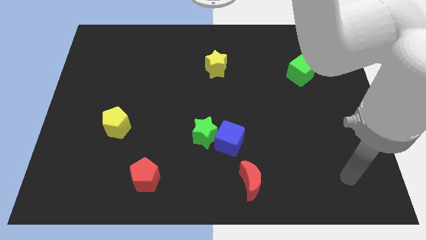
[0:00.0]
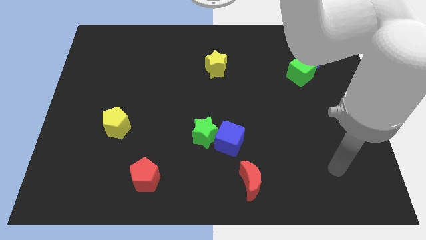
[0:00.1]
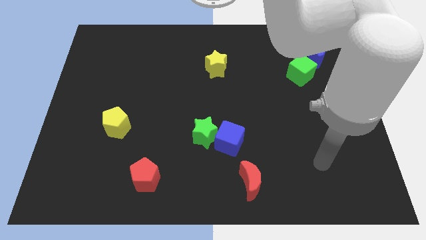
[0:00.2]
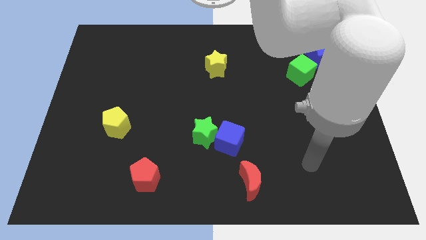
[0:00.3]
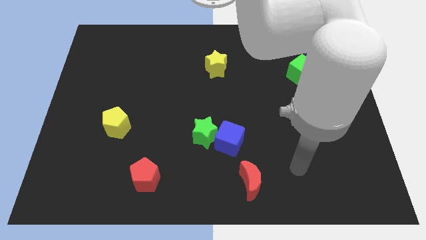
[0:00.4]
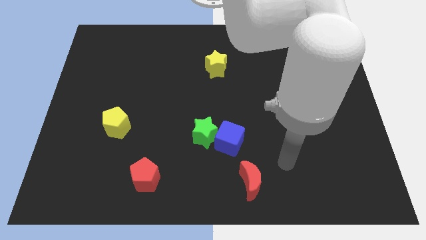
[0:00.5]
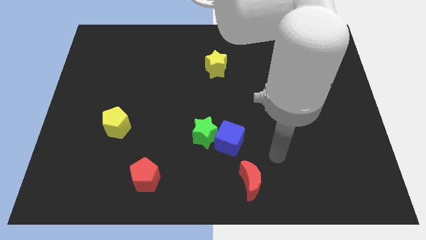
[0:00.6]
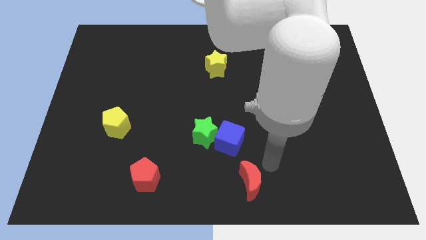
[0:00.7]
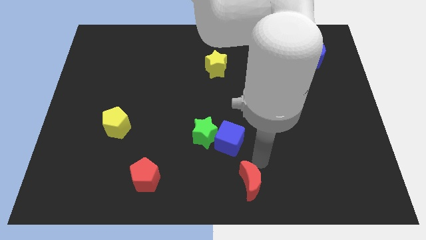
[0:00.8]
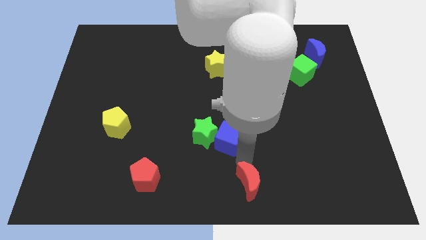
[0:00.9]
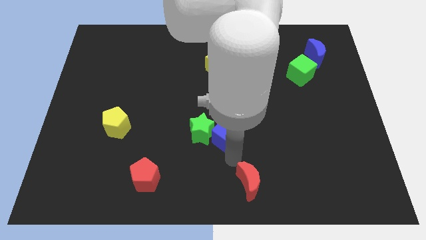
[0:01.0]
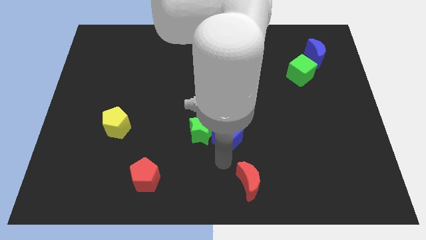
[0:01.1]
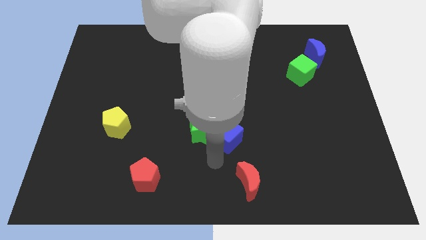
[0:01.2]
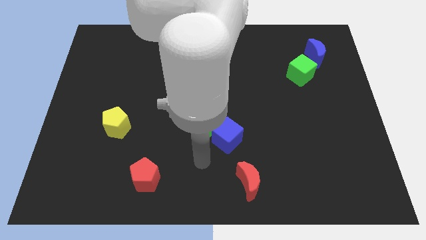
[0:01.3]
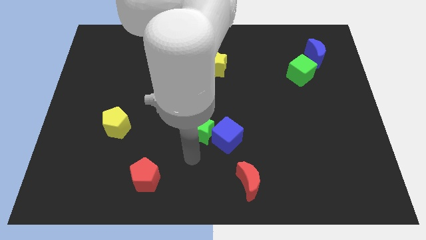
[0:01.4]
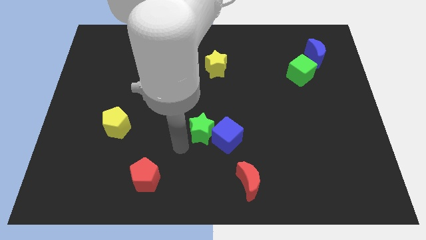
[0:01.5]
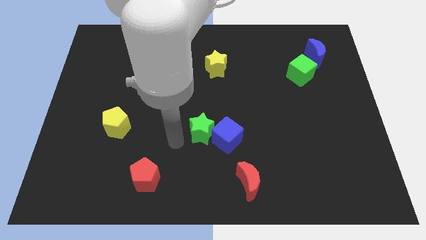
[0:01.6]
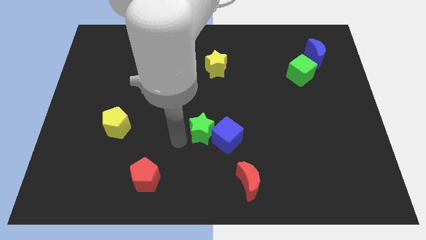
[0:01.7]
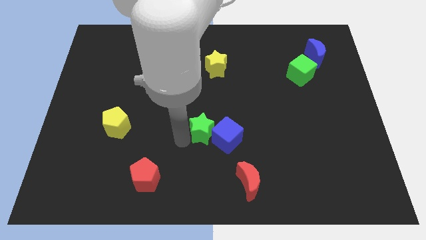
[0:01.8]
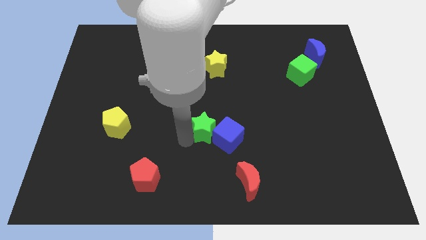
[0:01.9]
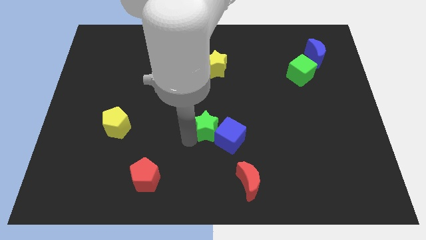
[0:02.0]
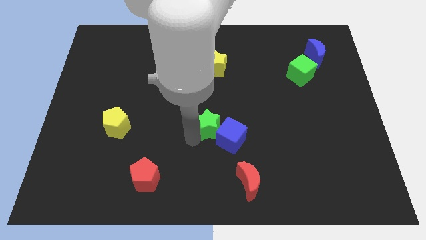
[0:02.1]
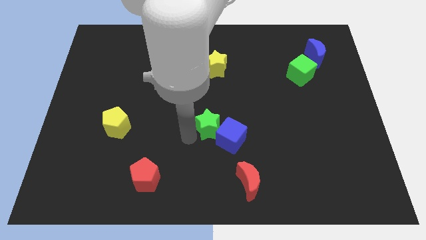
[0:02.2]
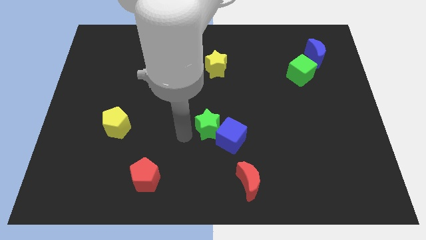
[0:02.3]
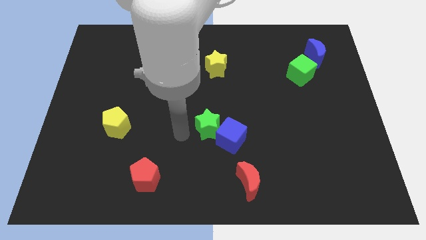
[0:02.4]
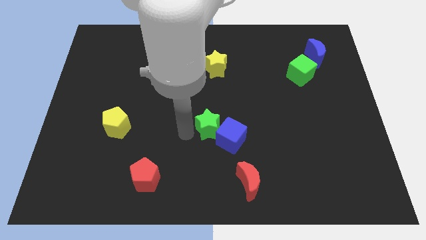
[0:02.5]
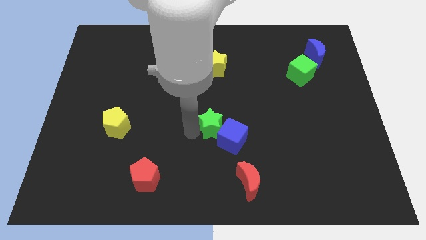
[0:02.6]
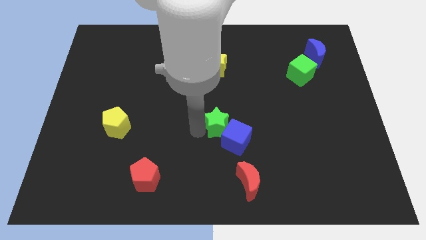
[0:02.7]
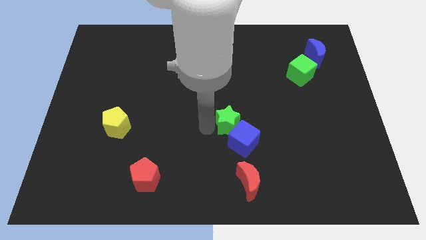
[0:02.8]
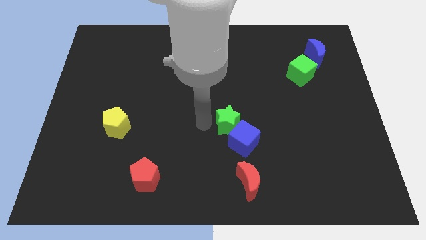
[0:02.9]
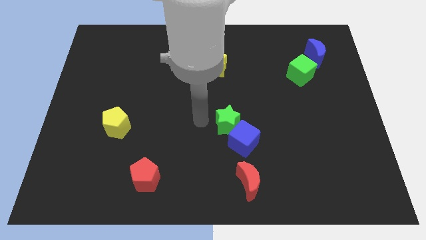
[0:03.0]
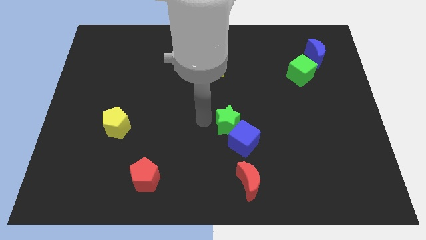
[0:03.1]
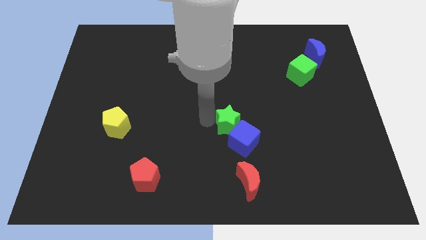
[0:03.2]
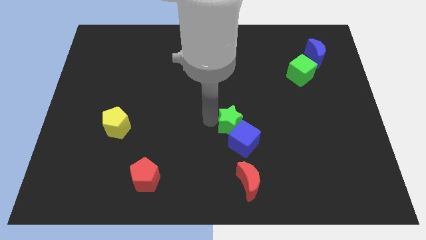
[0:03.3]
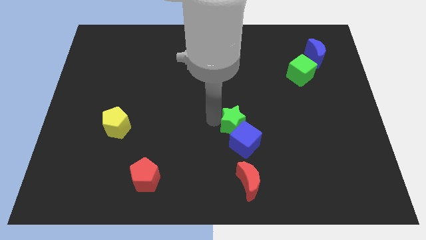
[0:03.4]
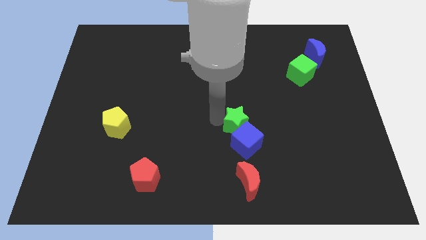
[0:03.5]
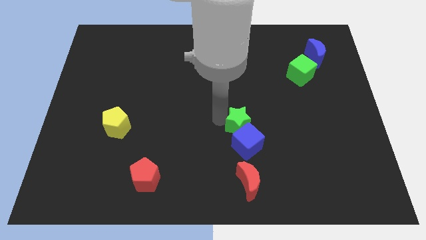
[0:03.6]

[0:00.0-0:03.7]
slide the green star right somewhat

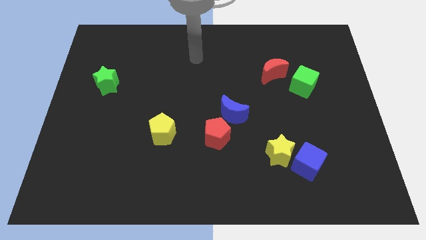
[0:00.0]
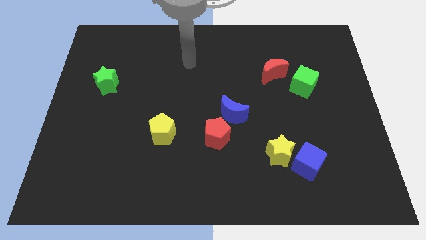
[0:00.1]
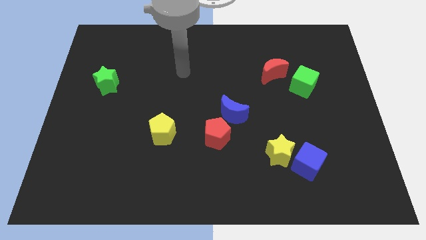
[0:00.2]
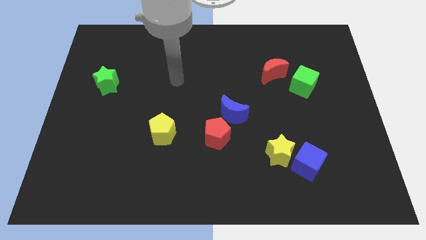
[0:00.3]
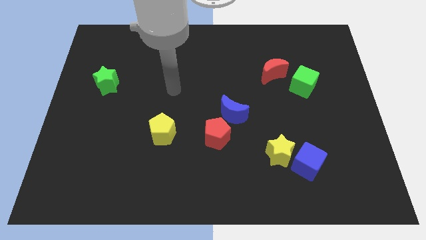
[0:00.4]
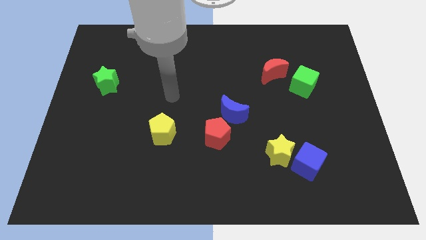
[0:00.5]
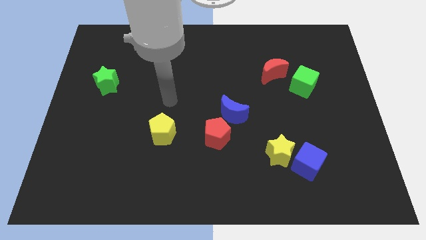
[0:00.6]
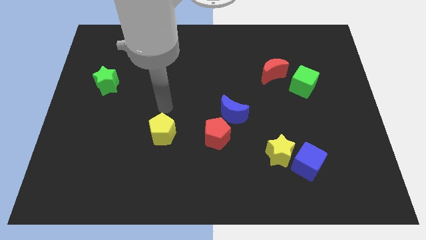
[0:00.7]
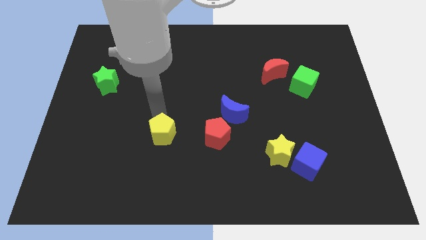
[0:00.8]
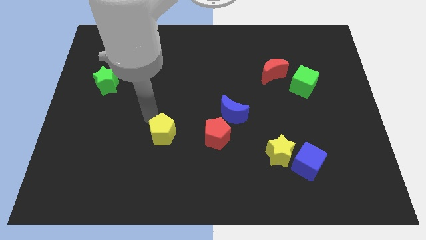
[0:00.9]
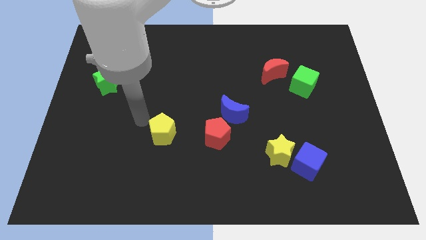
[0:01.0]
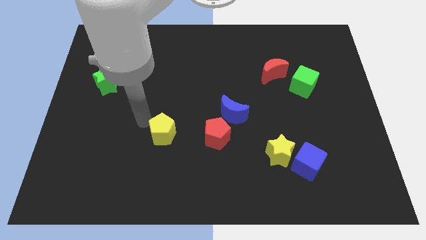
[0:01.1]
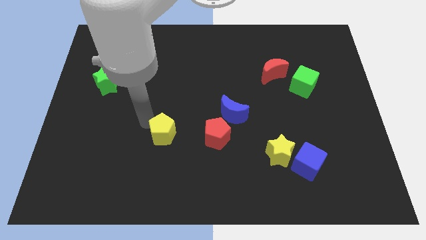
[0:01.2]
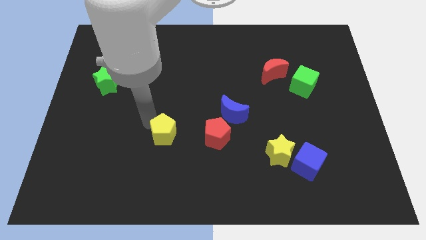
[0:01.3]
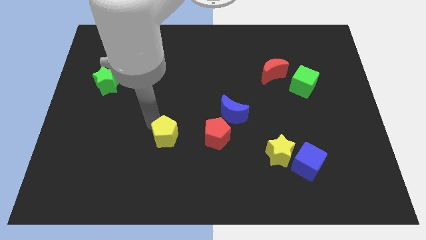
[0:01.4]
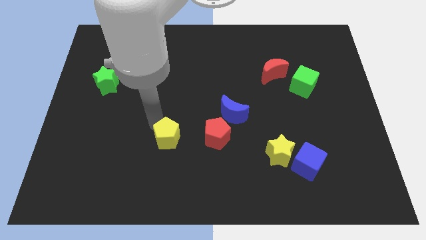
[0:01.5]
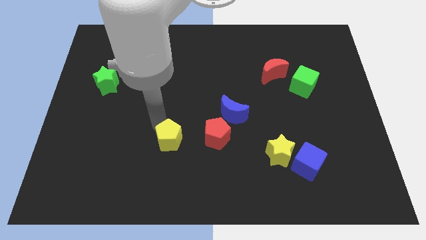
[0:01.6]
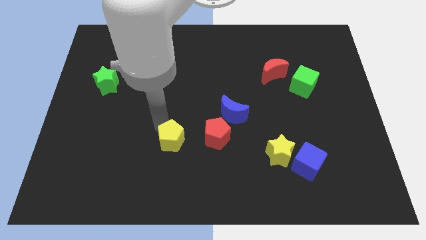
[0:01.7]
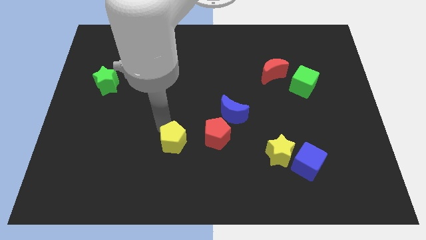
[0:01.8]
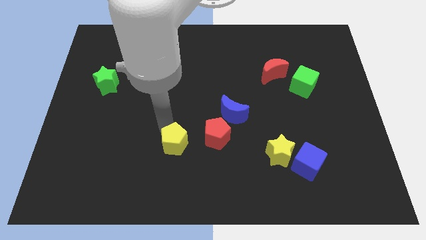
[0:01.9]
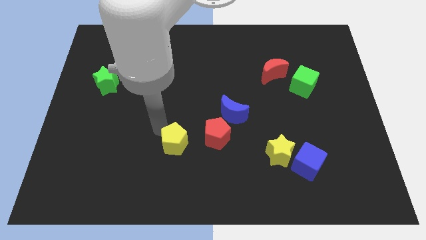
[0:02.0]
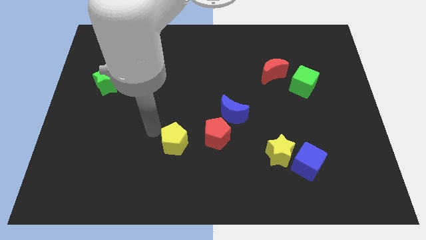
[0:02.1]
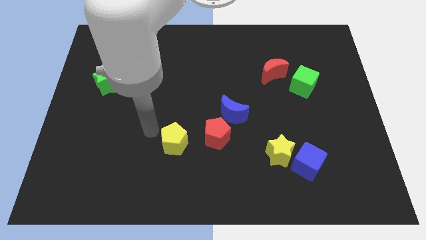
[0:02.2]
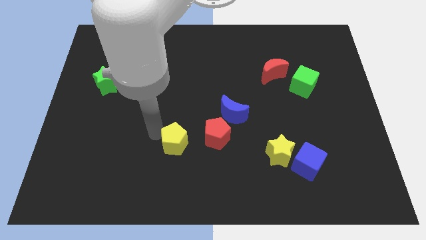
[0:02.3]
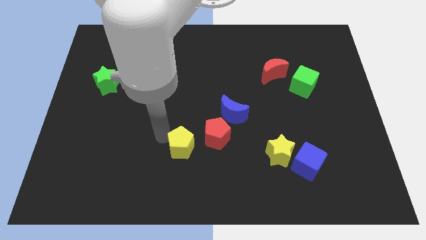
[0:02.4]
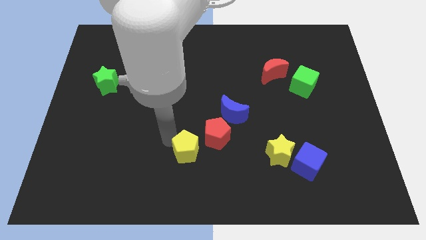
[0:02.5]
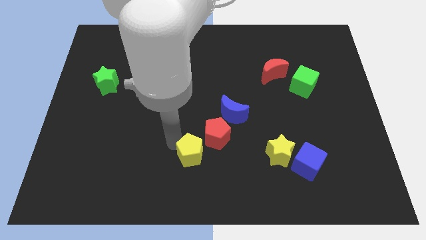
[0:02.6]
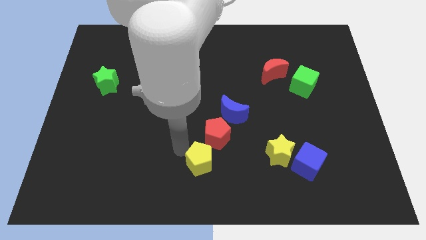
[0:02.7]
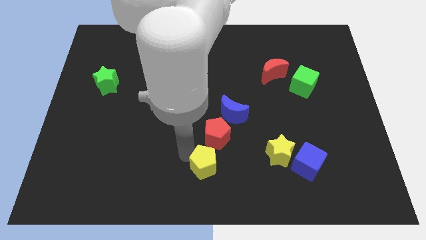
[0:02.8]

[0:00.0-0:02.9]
slide the yellow pentagon to the right somewhat

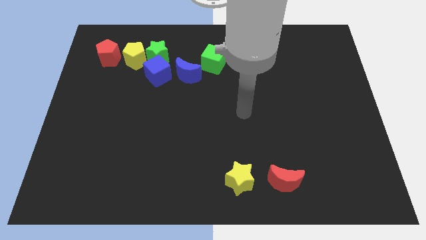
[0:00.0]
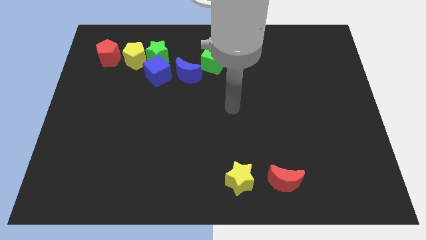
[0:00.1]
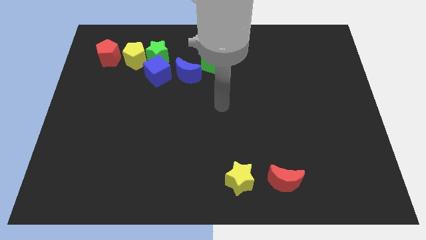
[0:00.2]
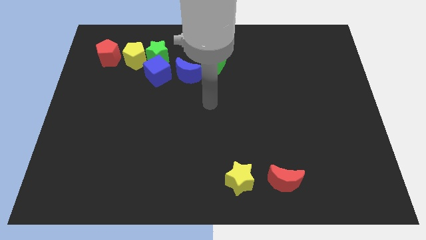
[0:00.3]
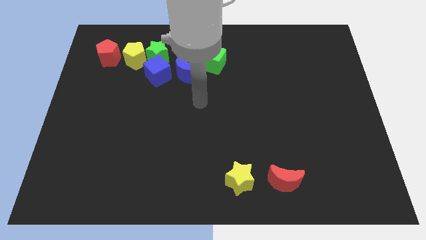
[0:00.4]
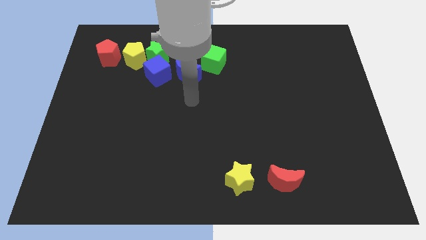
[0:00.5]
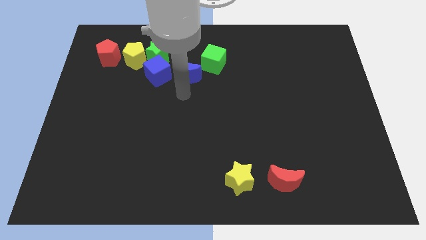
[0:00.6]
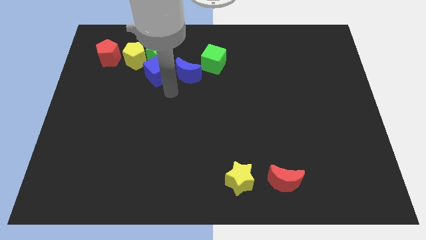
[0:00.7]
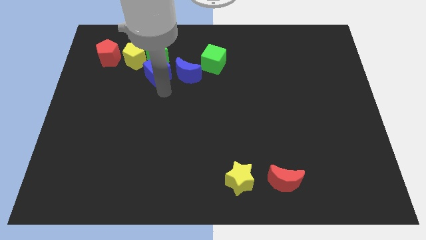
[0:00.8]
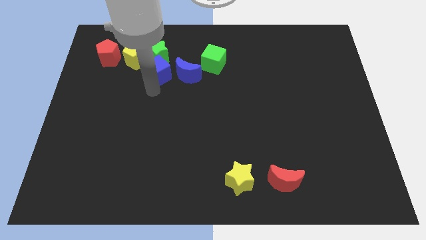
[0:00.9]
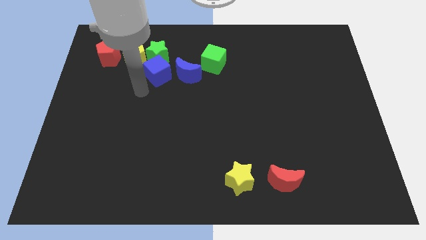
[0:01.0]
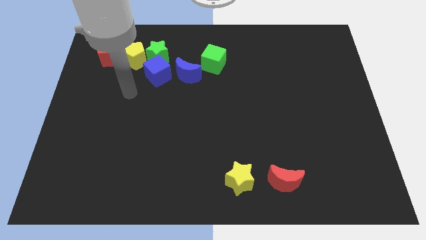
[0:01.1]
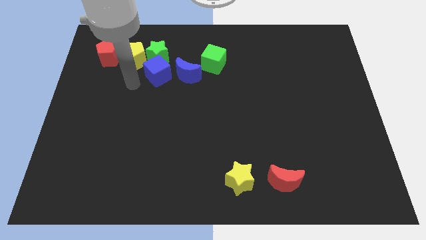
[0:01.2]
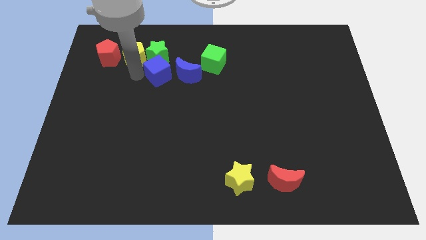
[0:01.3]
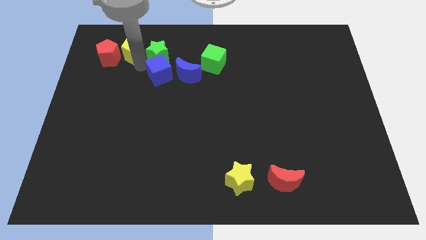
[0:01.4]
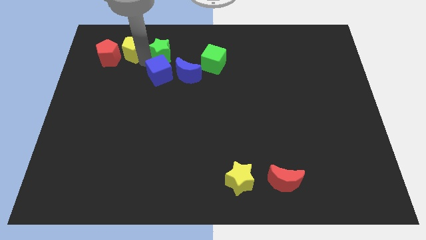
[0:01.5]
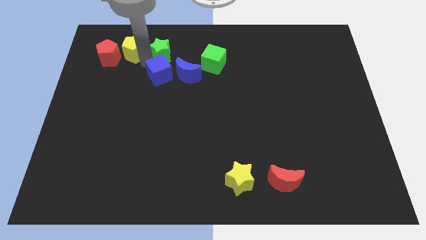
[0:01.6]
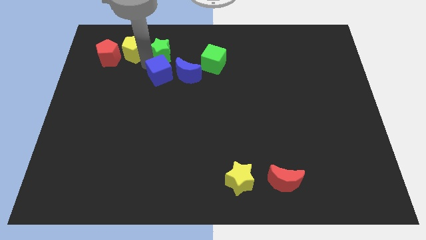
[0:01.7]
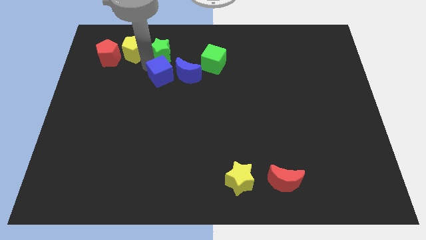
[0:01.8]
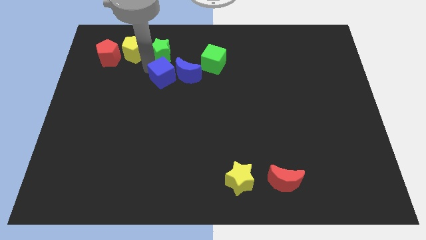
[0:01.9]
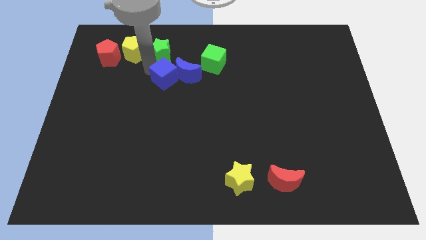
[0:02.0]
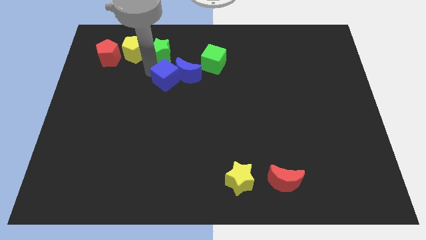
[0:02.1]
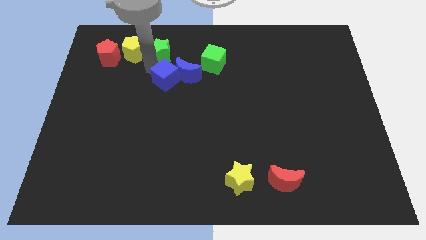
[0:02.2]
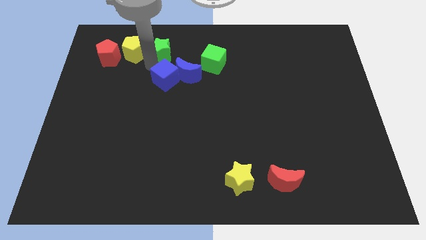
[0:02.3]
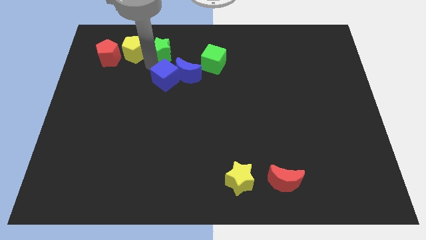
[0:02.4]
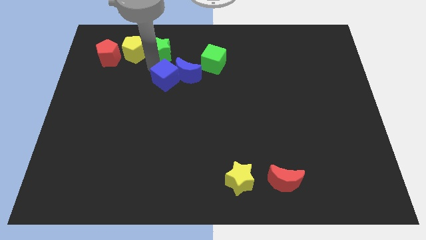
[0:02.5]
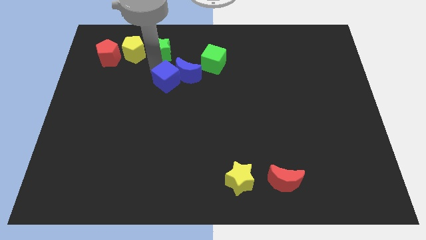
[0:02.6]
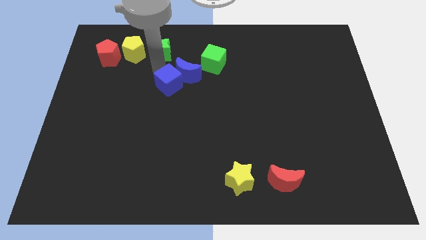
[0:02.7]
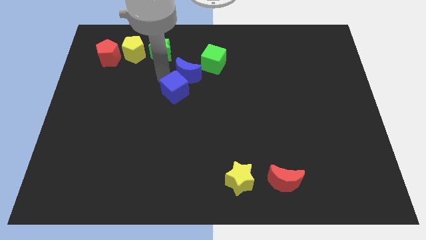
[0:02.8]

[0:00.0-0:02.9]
move the blue cube somewhat down and to the right diagonally
